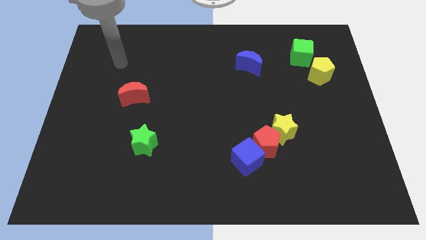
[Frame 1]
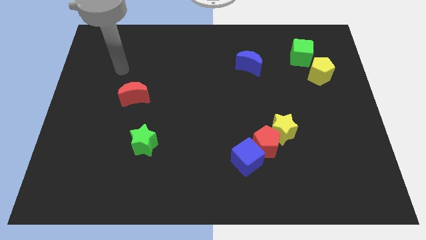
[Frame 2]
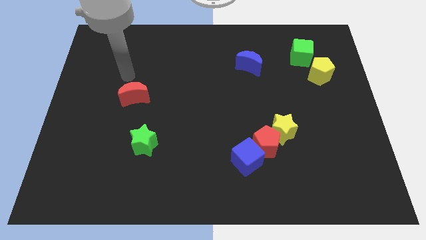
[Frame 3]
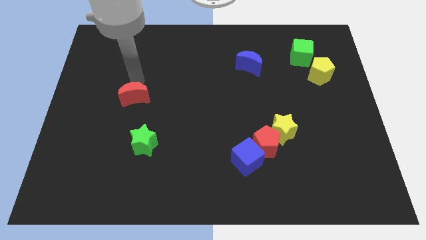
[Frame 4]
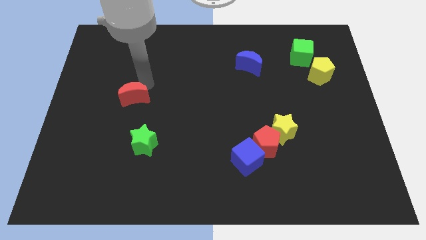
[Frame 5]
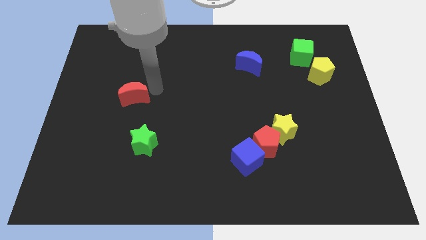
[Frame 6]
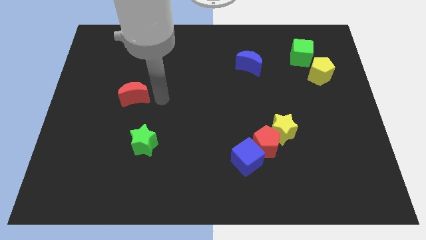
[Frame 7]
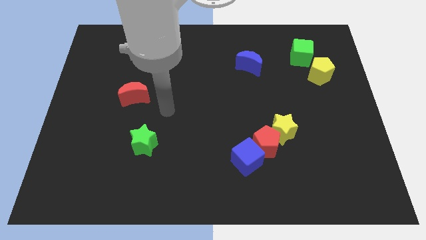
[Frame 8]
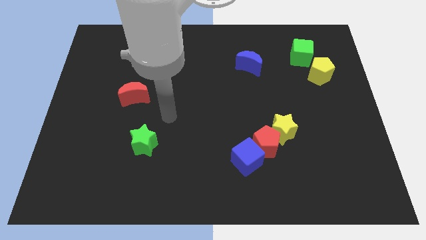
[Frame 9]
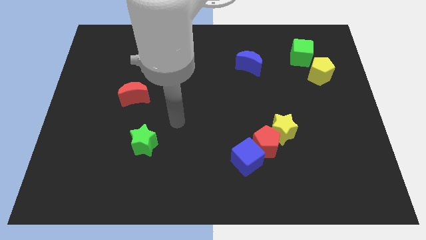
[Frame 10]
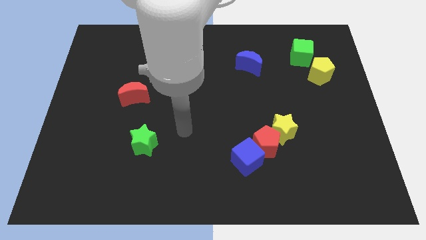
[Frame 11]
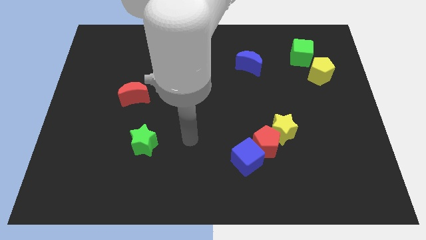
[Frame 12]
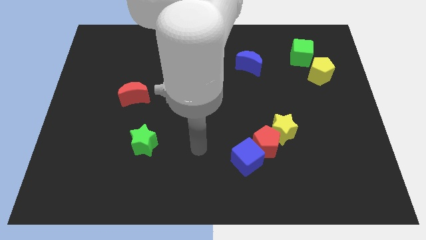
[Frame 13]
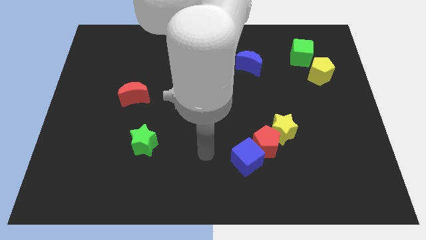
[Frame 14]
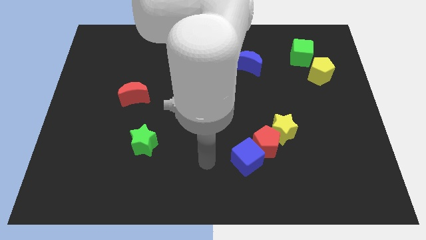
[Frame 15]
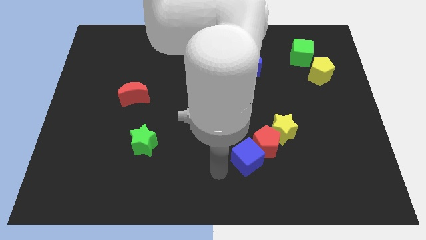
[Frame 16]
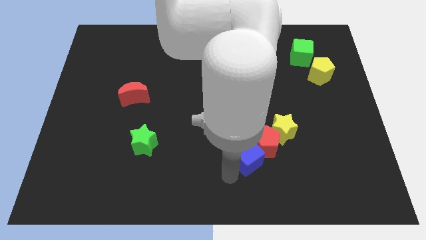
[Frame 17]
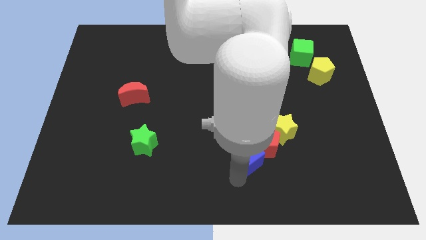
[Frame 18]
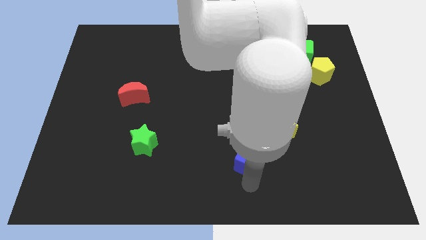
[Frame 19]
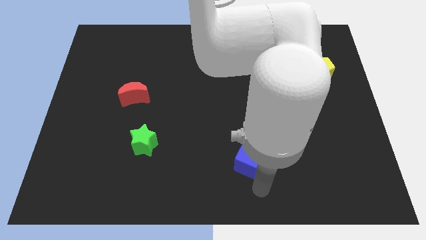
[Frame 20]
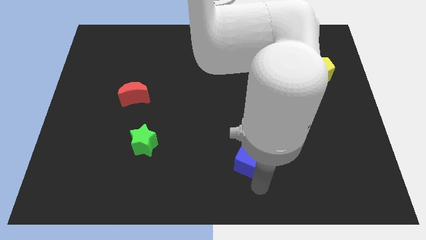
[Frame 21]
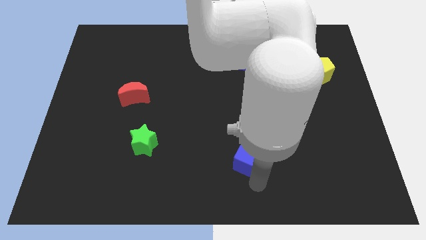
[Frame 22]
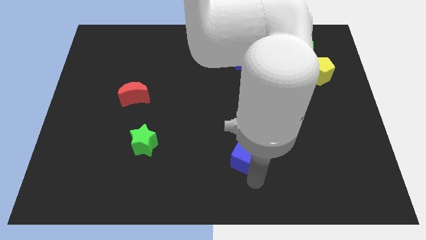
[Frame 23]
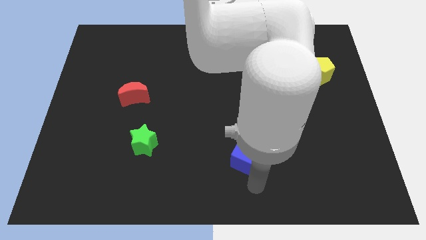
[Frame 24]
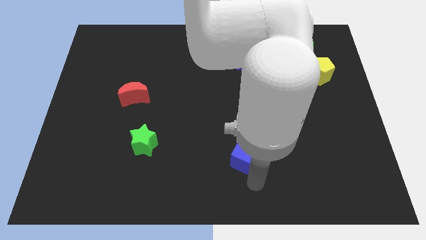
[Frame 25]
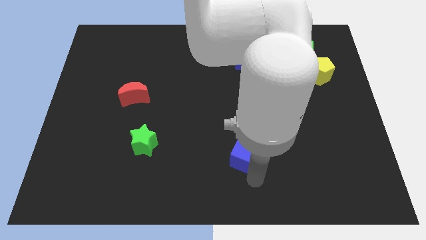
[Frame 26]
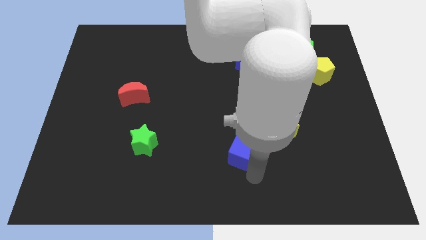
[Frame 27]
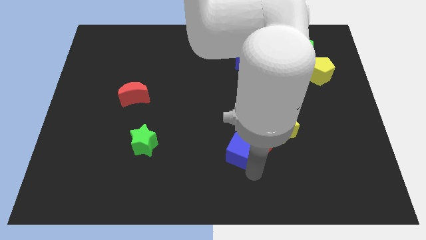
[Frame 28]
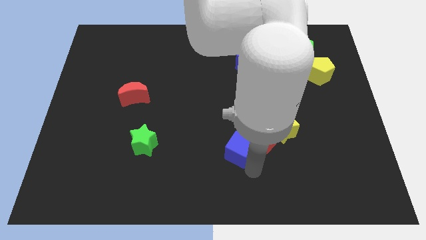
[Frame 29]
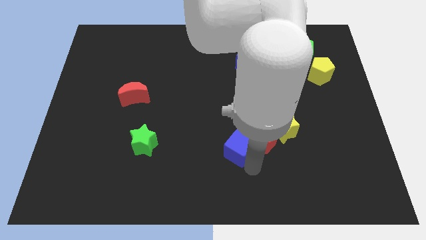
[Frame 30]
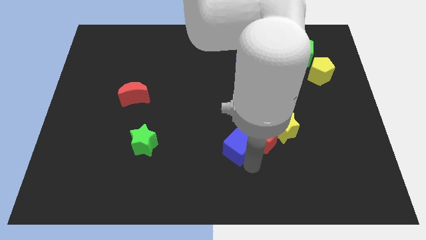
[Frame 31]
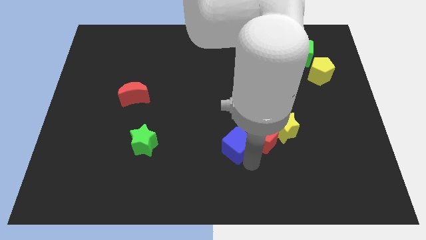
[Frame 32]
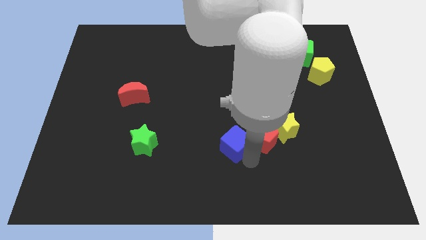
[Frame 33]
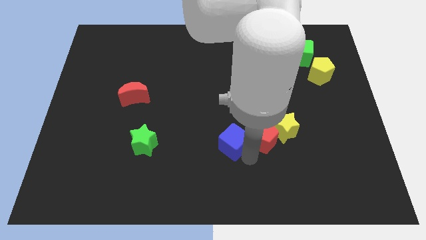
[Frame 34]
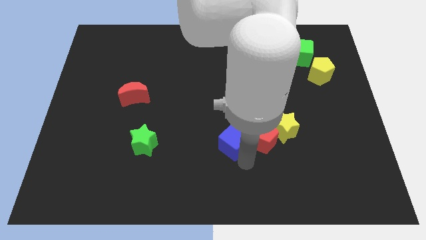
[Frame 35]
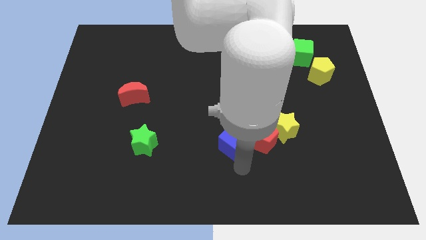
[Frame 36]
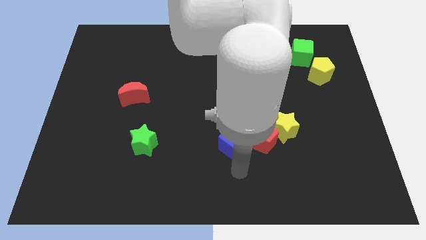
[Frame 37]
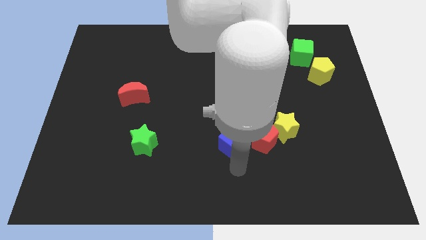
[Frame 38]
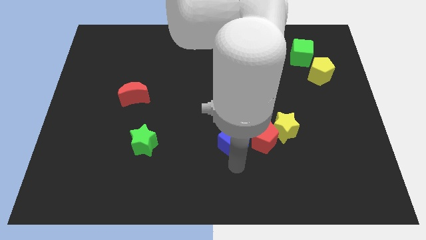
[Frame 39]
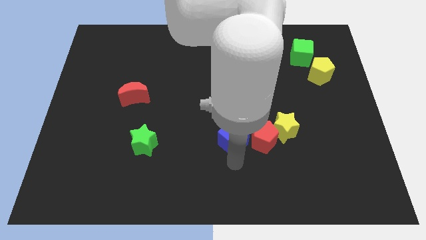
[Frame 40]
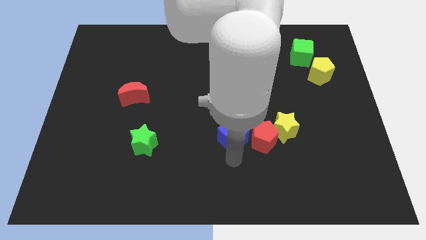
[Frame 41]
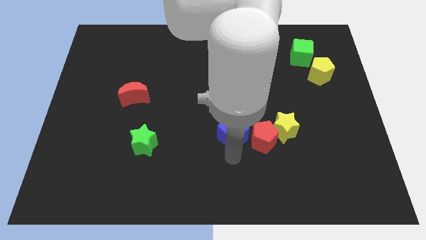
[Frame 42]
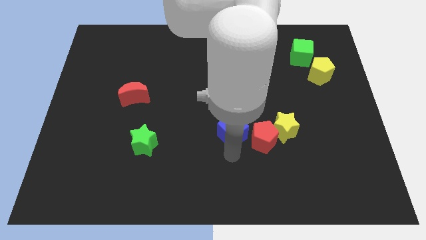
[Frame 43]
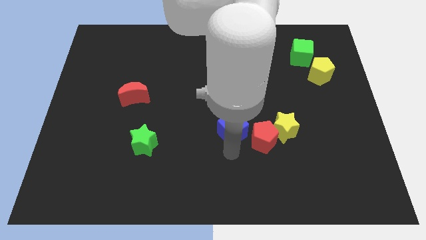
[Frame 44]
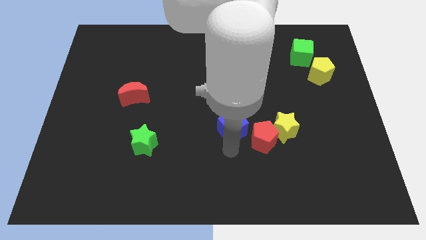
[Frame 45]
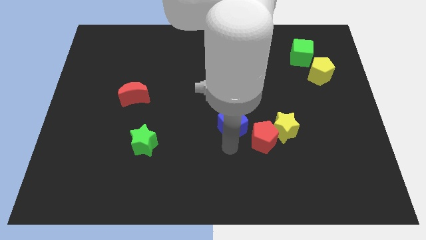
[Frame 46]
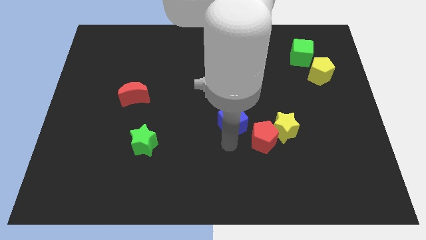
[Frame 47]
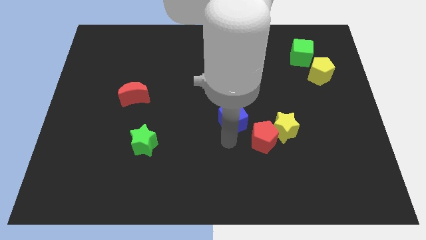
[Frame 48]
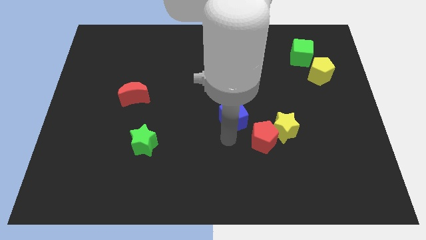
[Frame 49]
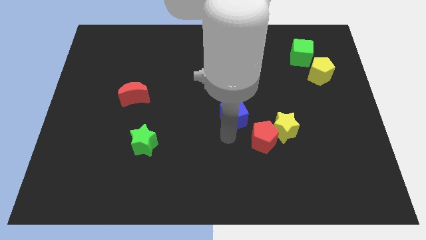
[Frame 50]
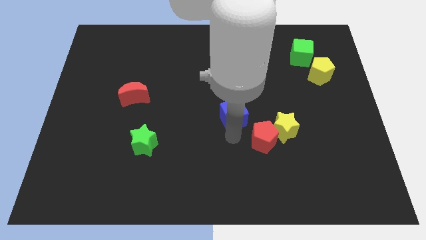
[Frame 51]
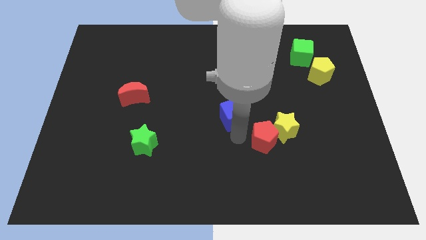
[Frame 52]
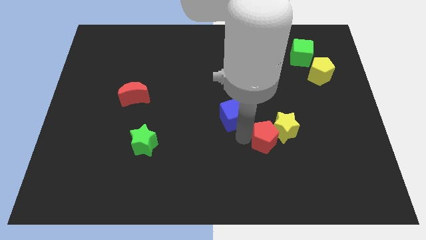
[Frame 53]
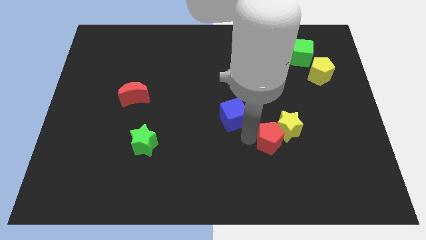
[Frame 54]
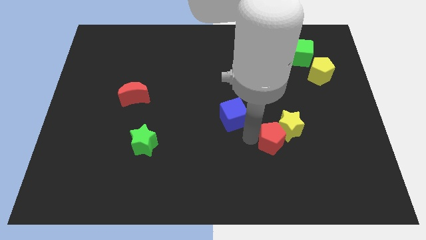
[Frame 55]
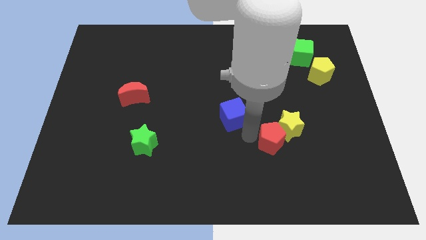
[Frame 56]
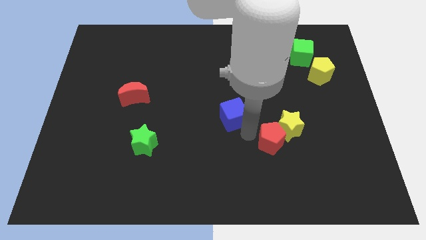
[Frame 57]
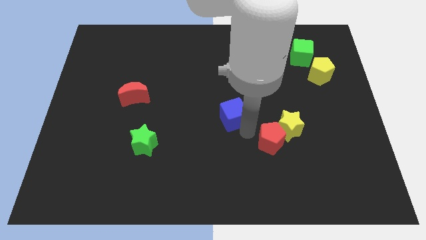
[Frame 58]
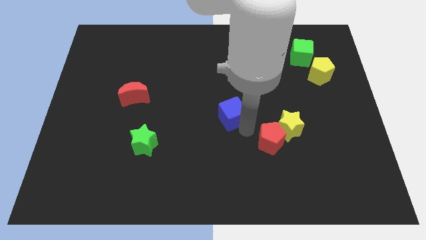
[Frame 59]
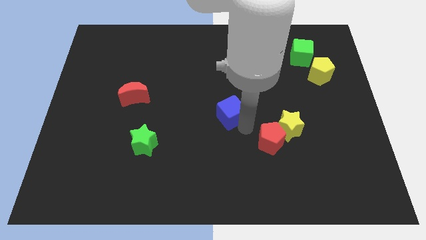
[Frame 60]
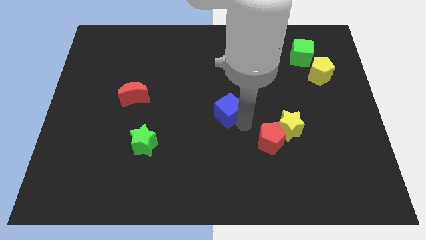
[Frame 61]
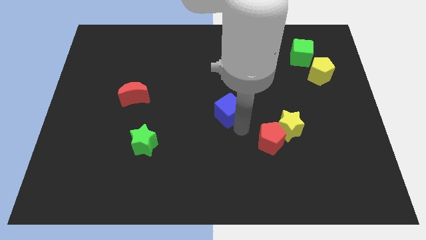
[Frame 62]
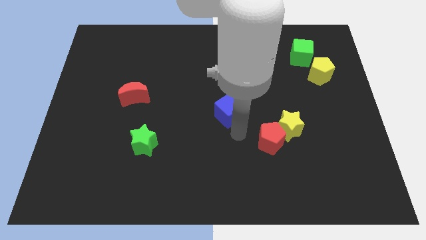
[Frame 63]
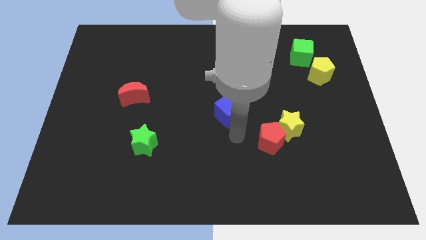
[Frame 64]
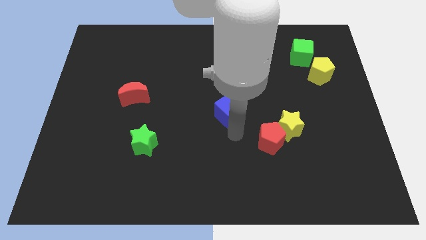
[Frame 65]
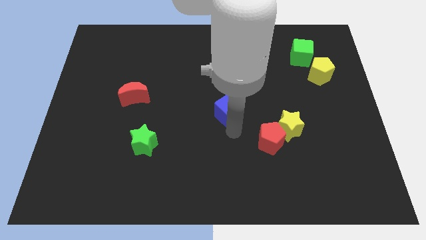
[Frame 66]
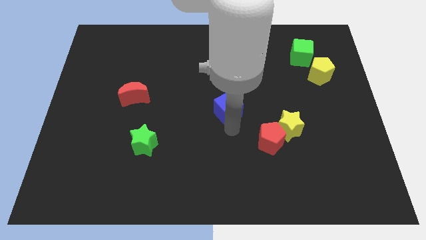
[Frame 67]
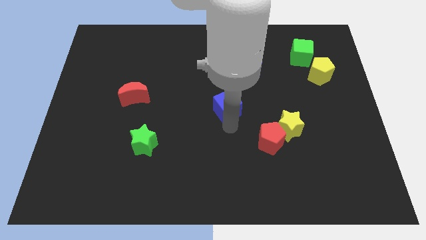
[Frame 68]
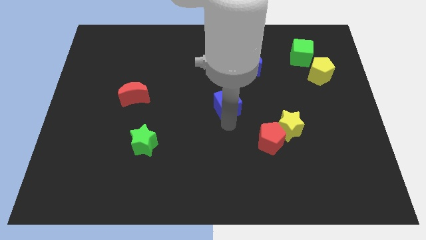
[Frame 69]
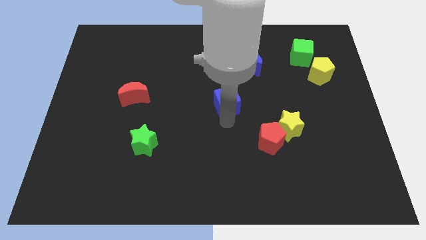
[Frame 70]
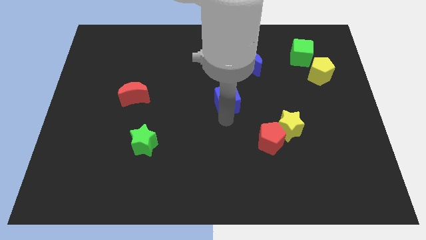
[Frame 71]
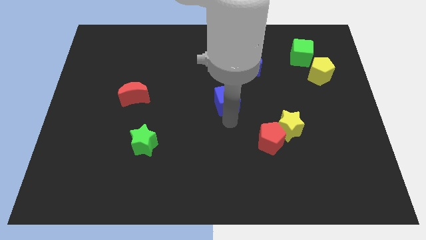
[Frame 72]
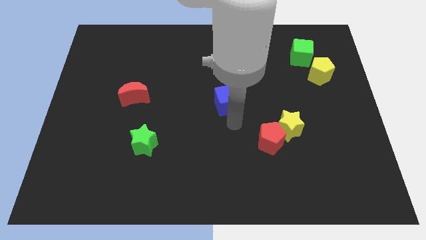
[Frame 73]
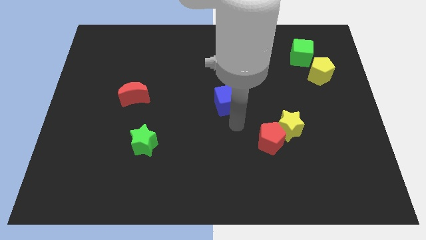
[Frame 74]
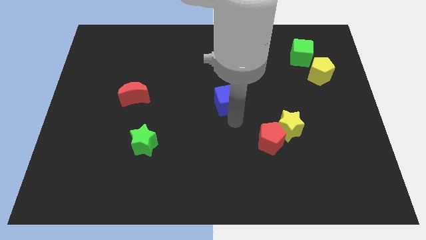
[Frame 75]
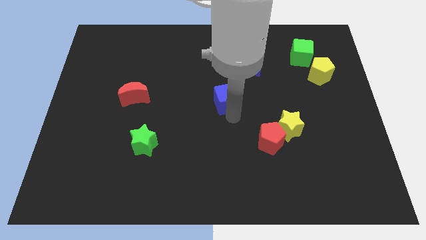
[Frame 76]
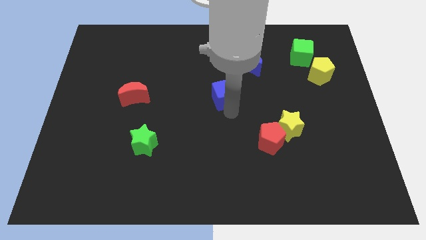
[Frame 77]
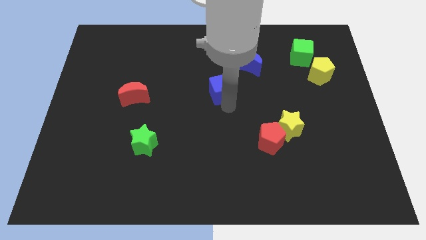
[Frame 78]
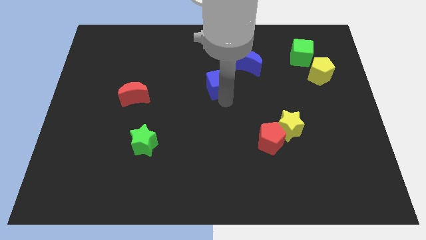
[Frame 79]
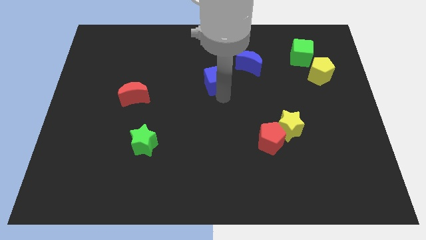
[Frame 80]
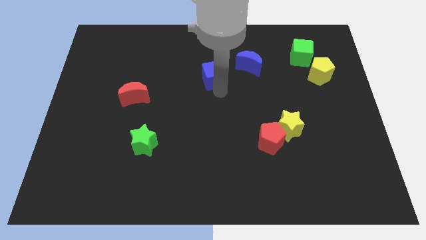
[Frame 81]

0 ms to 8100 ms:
push the blue cube left of the blue moon
